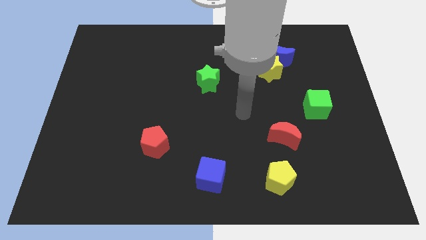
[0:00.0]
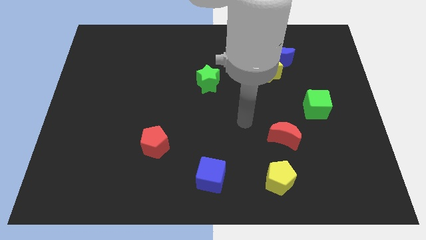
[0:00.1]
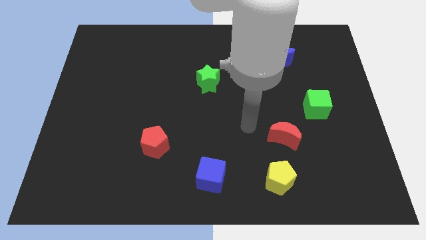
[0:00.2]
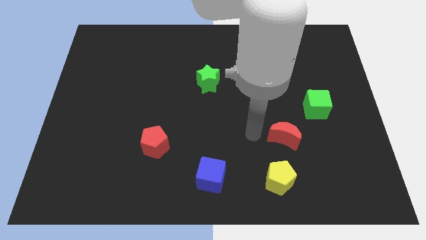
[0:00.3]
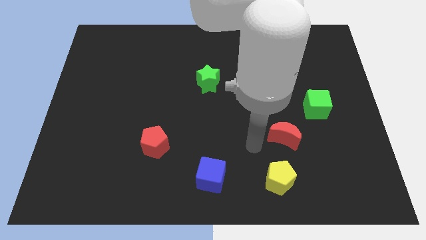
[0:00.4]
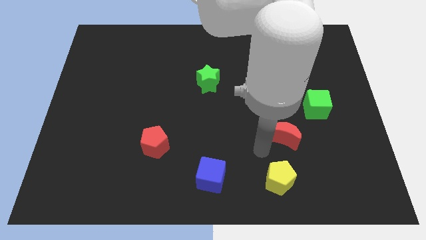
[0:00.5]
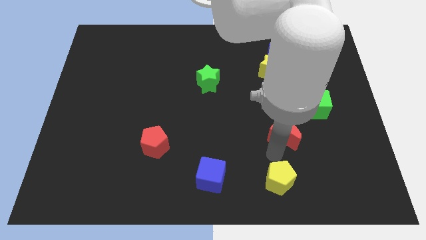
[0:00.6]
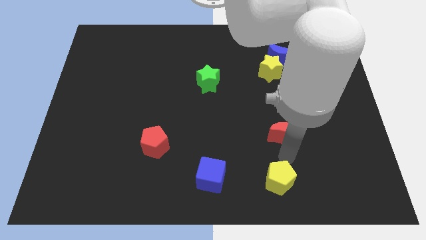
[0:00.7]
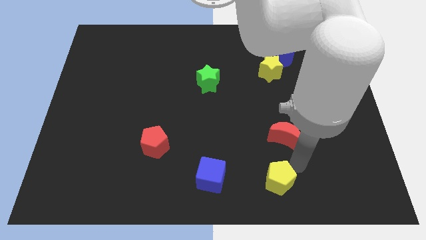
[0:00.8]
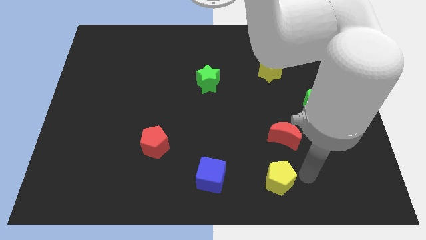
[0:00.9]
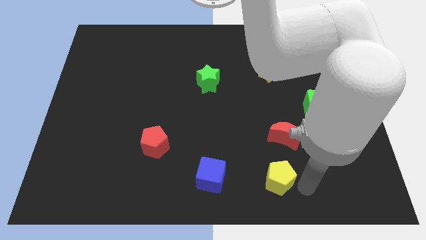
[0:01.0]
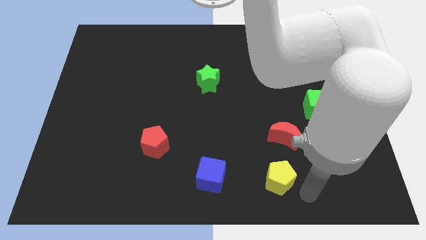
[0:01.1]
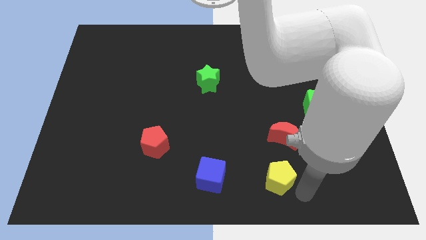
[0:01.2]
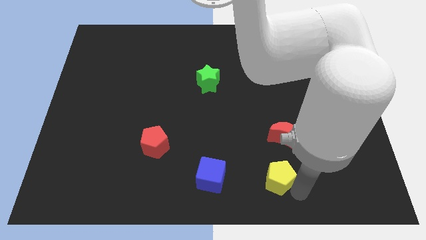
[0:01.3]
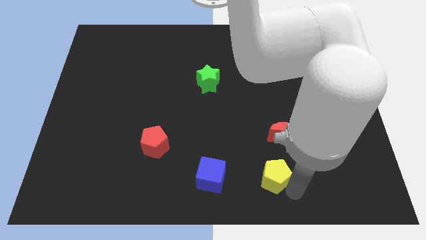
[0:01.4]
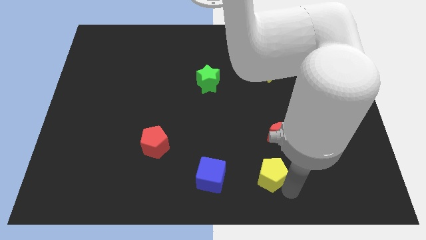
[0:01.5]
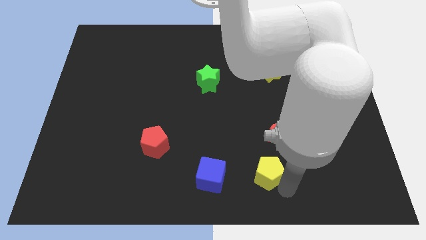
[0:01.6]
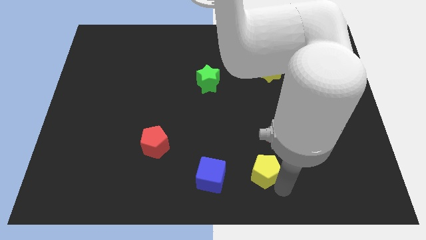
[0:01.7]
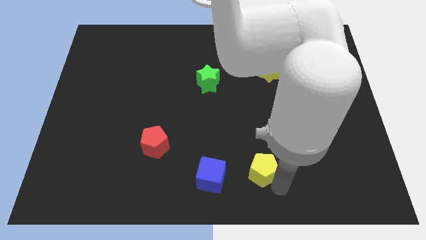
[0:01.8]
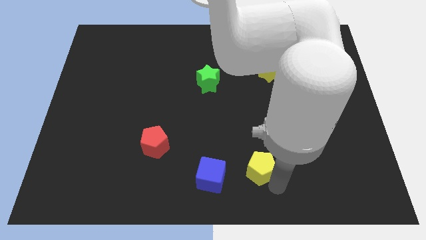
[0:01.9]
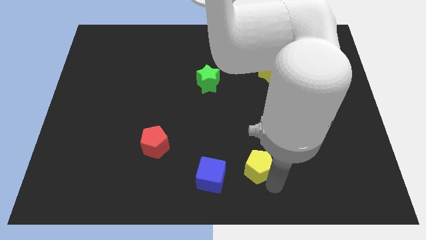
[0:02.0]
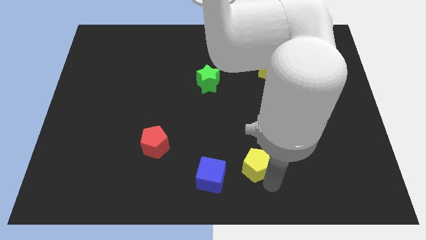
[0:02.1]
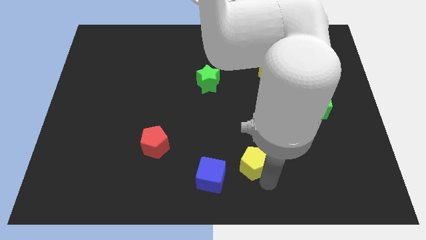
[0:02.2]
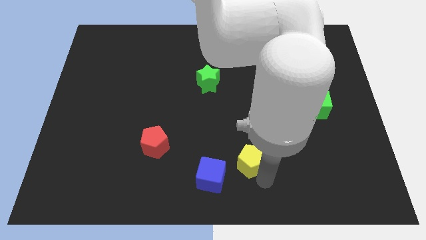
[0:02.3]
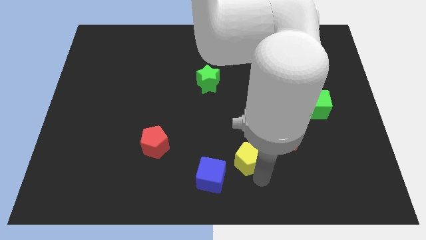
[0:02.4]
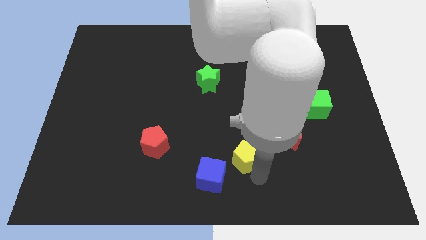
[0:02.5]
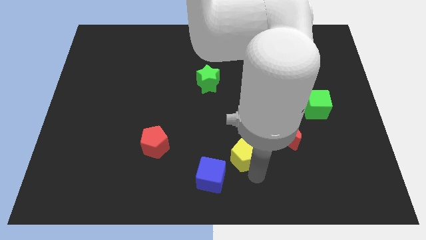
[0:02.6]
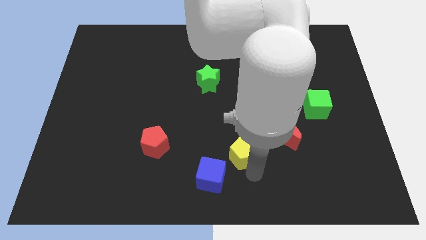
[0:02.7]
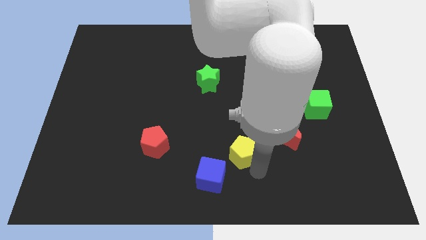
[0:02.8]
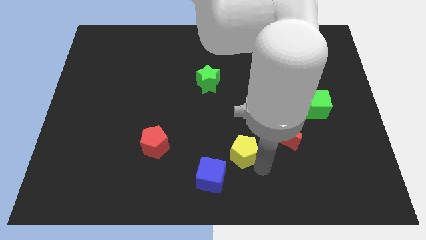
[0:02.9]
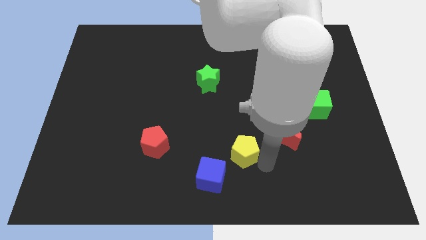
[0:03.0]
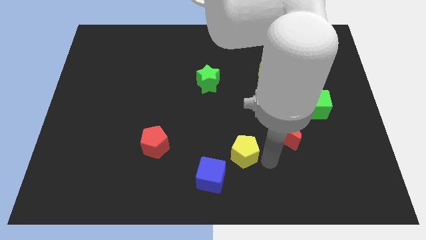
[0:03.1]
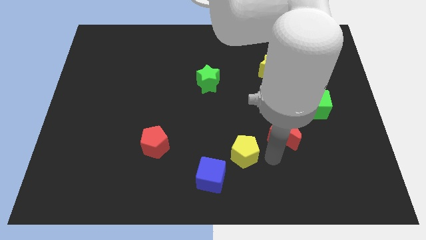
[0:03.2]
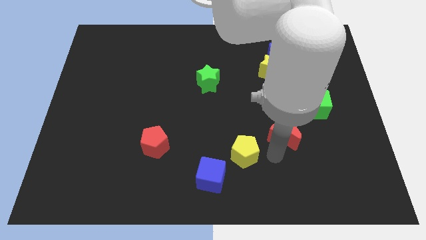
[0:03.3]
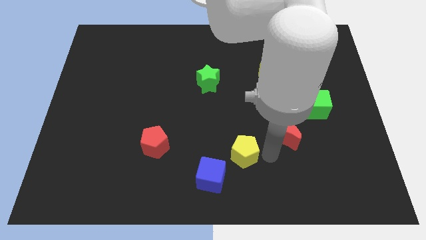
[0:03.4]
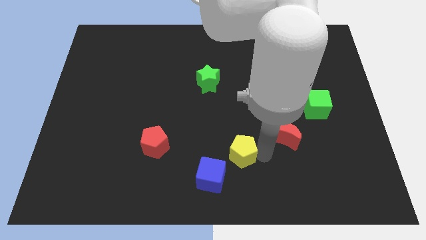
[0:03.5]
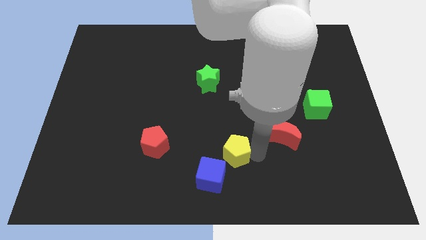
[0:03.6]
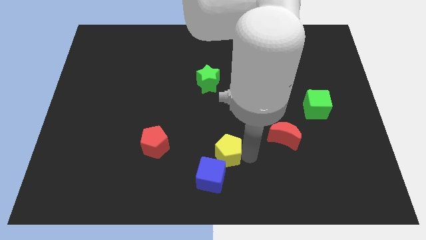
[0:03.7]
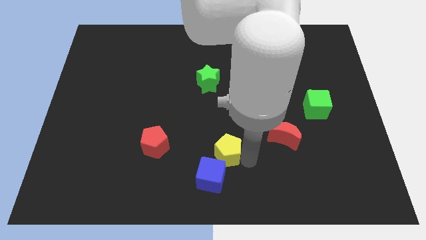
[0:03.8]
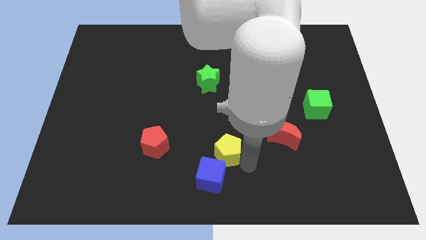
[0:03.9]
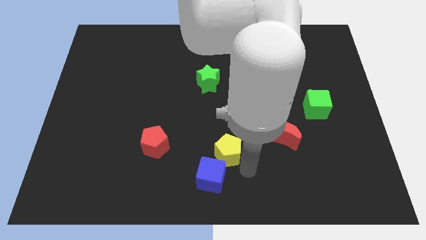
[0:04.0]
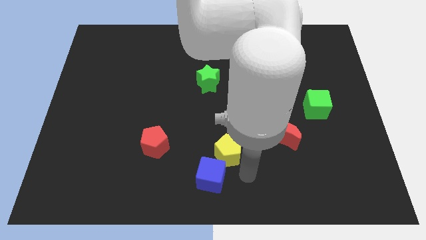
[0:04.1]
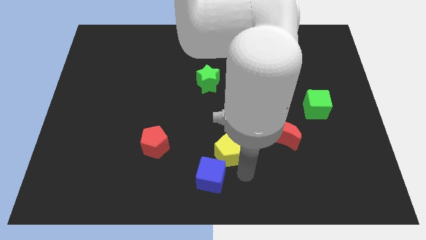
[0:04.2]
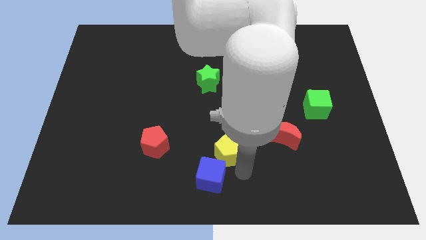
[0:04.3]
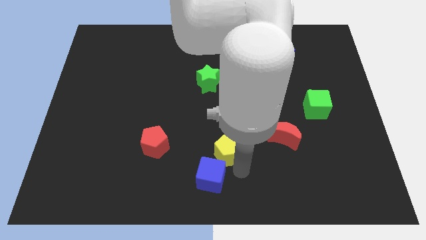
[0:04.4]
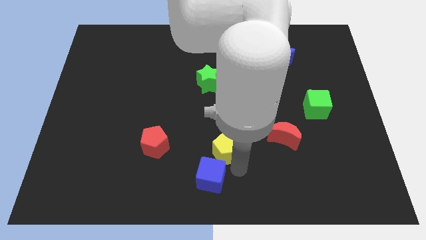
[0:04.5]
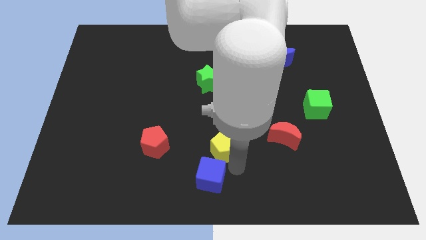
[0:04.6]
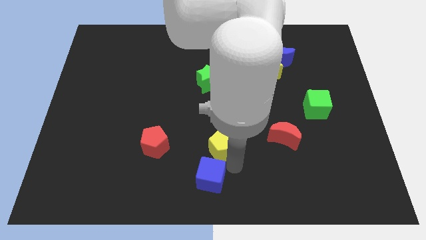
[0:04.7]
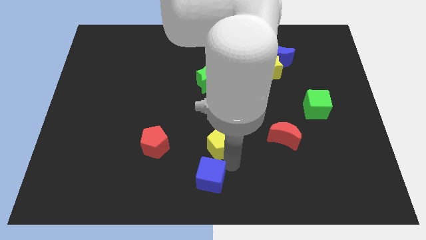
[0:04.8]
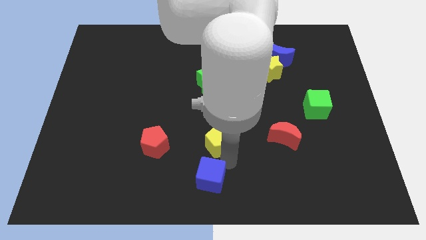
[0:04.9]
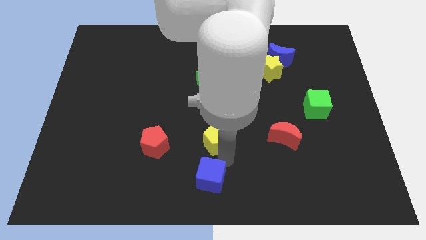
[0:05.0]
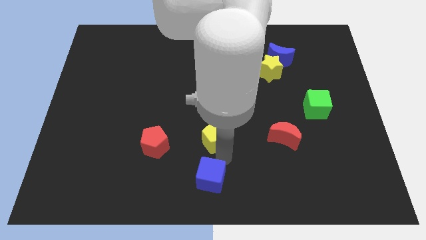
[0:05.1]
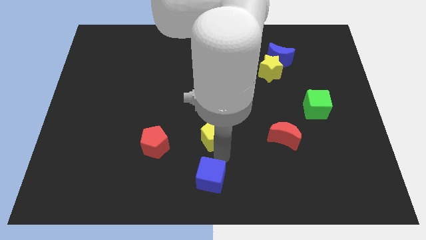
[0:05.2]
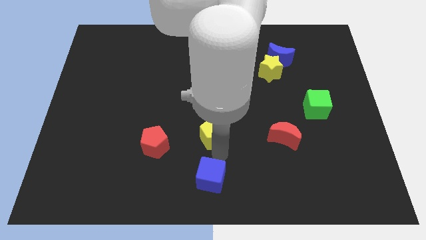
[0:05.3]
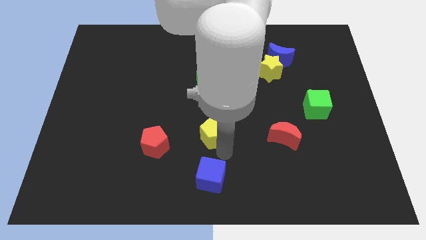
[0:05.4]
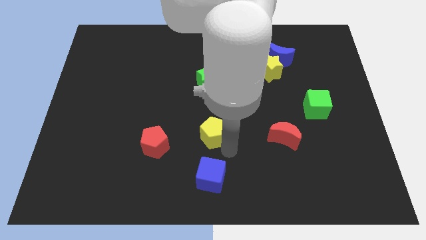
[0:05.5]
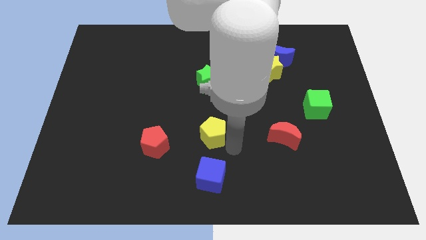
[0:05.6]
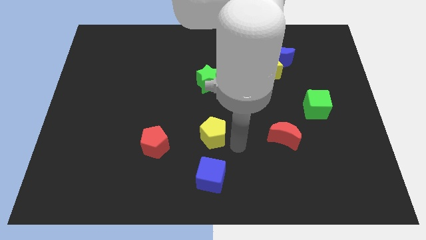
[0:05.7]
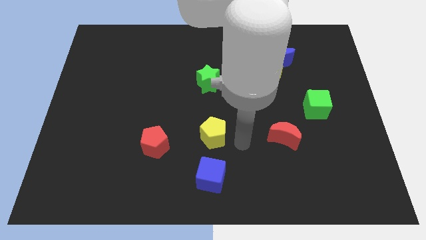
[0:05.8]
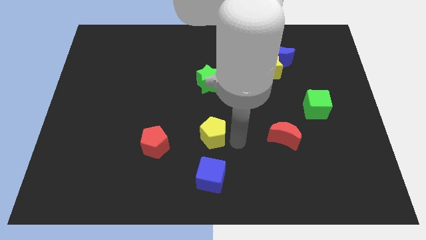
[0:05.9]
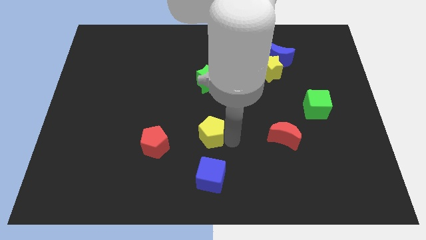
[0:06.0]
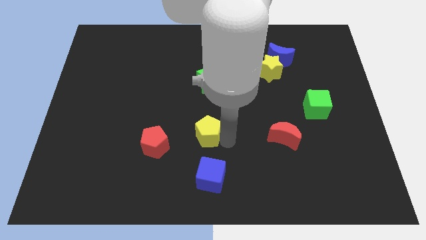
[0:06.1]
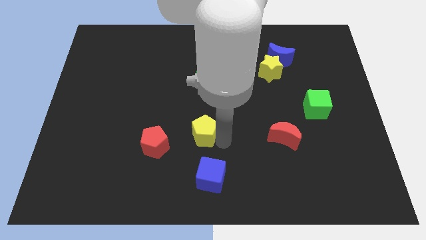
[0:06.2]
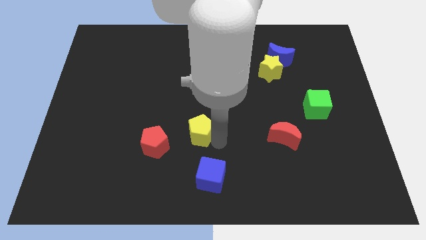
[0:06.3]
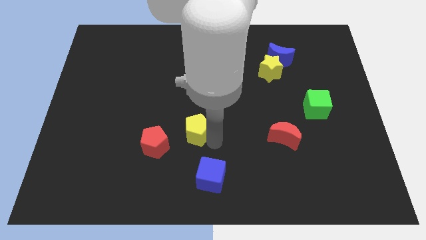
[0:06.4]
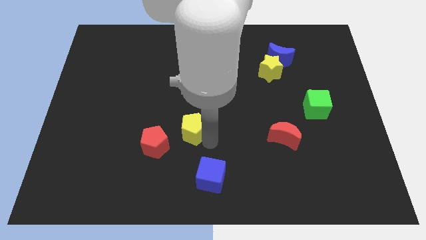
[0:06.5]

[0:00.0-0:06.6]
move the yellow pentagon upwards and left
